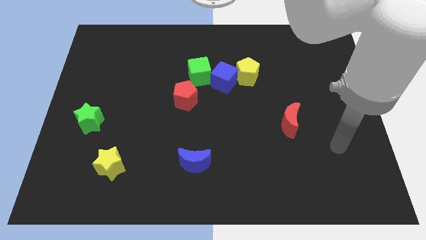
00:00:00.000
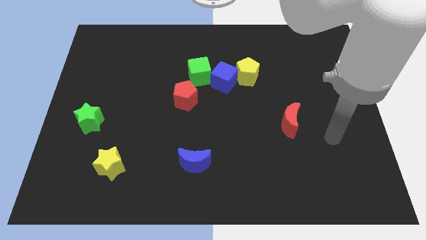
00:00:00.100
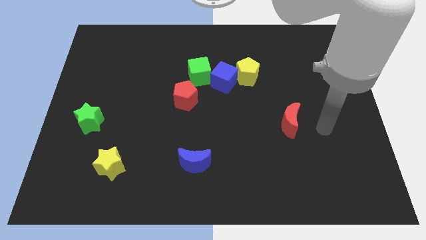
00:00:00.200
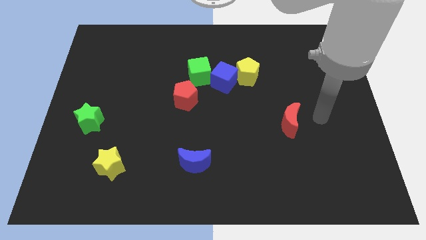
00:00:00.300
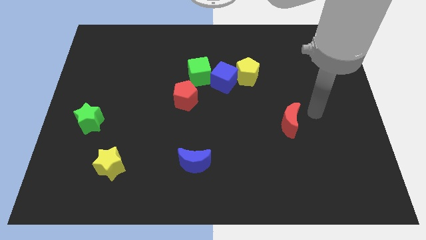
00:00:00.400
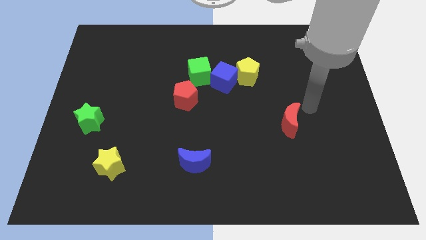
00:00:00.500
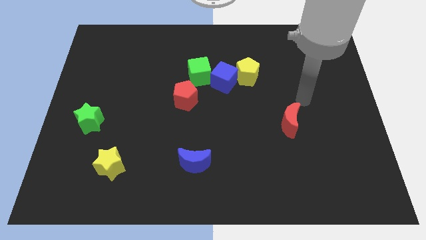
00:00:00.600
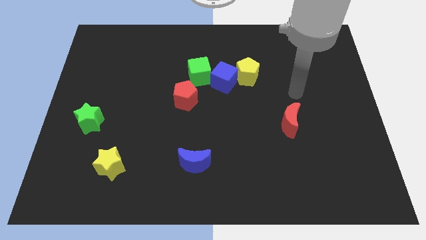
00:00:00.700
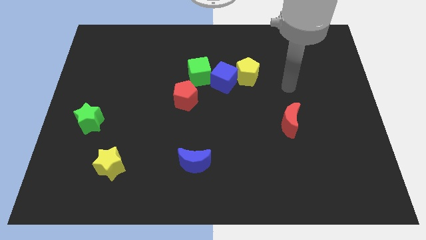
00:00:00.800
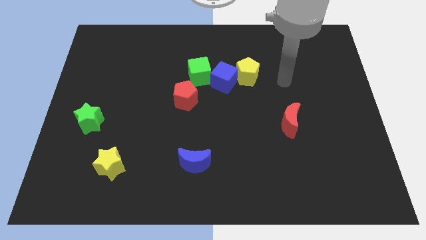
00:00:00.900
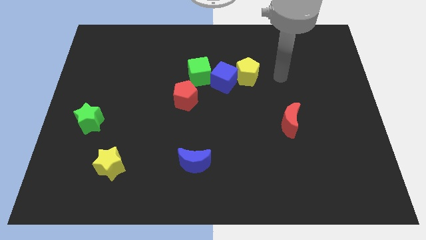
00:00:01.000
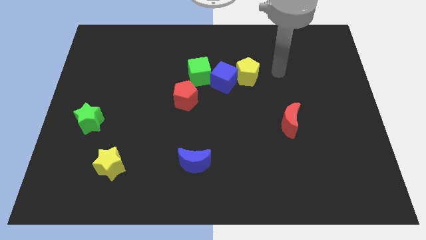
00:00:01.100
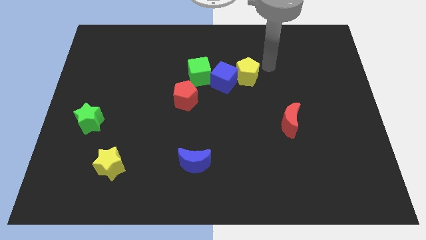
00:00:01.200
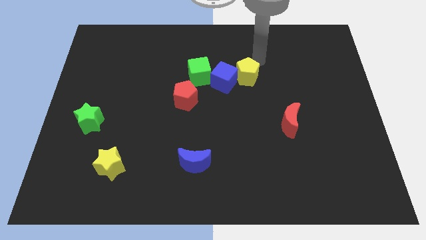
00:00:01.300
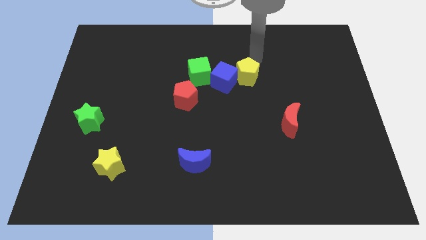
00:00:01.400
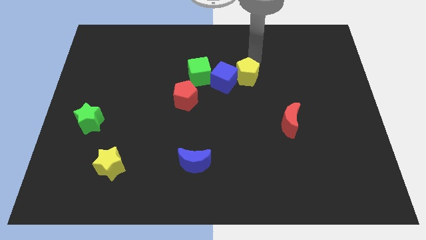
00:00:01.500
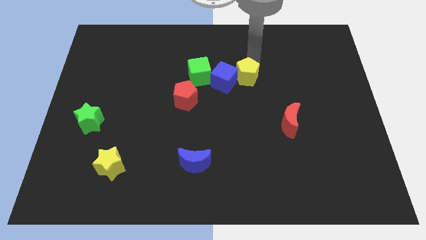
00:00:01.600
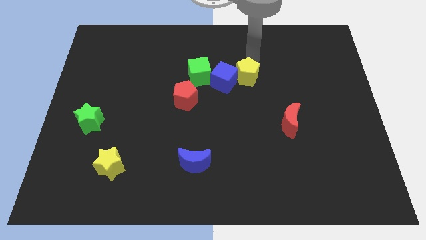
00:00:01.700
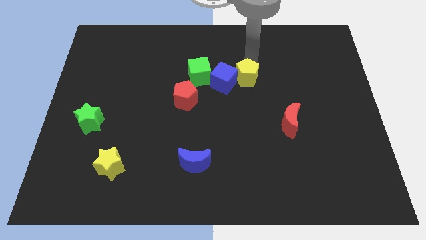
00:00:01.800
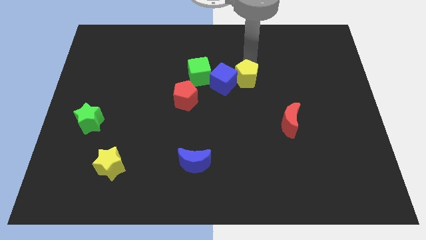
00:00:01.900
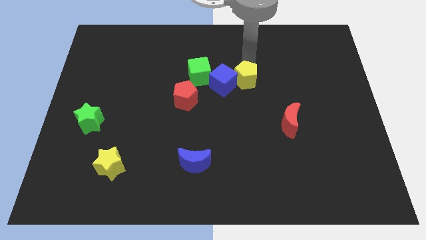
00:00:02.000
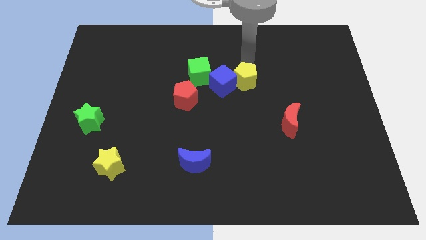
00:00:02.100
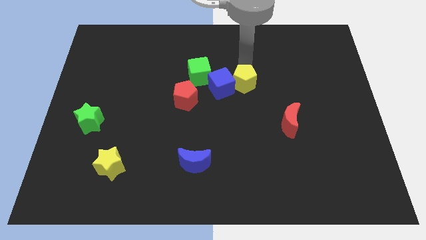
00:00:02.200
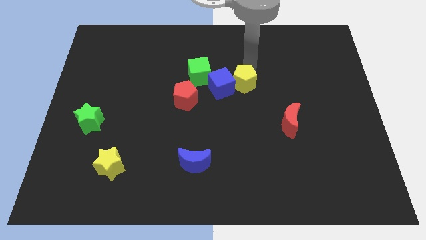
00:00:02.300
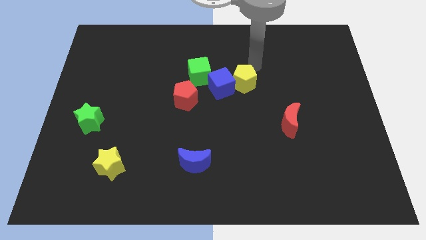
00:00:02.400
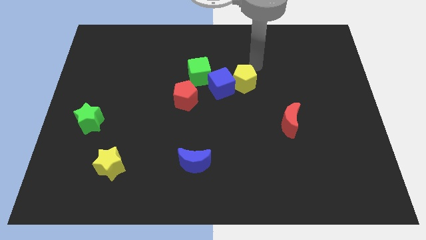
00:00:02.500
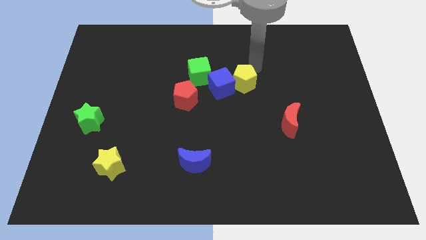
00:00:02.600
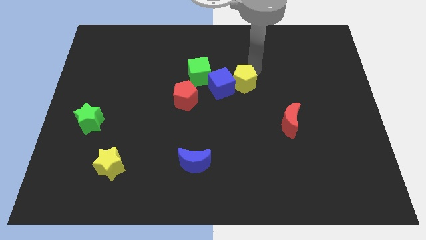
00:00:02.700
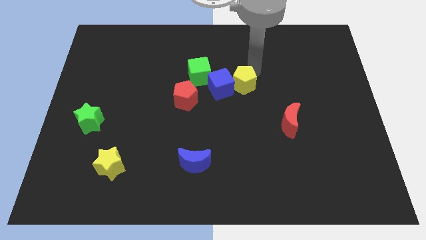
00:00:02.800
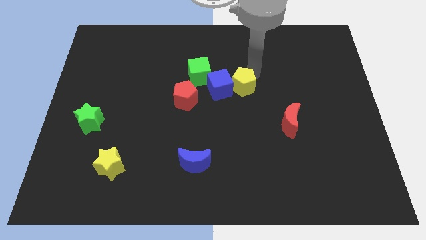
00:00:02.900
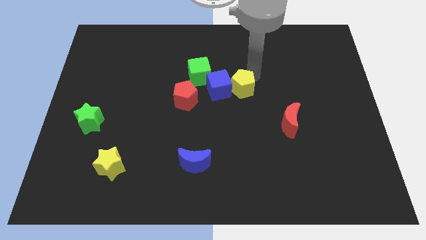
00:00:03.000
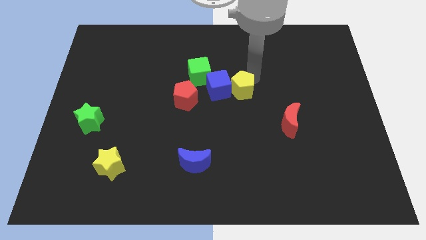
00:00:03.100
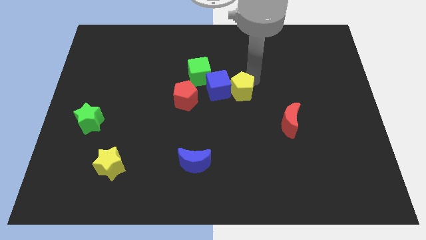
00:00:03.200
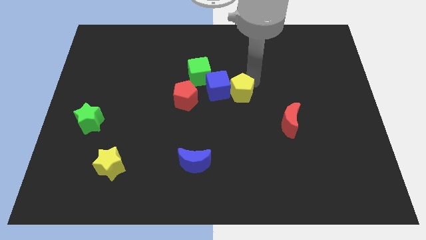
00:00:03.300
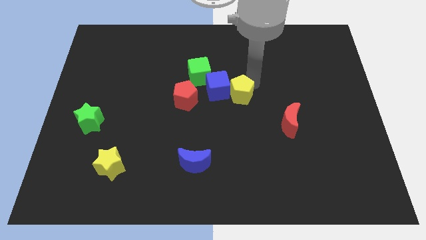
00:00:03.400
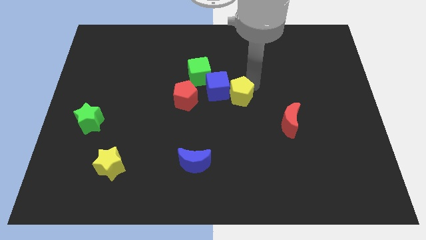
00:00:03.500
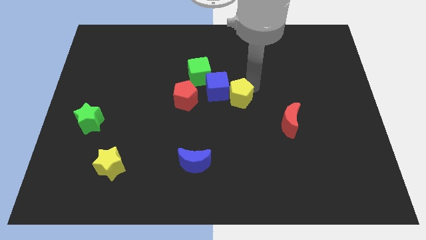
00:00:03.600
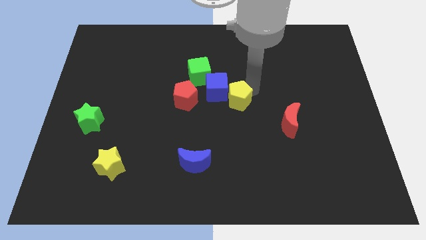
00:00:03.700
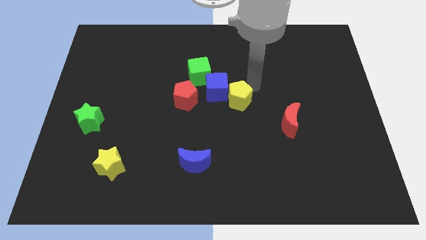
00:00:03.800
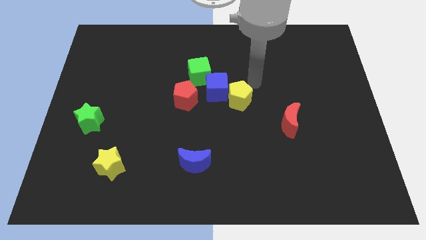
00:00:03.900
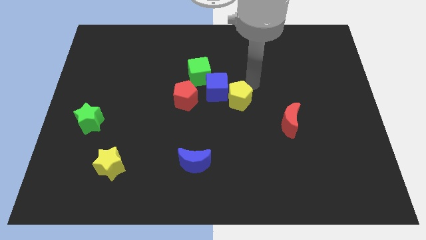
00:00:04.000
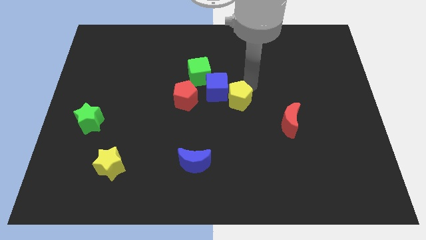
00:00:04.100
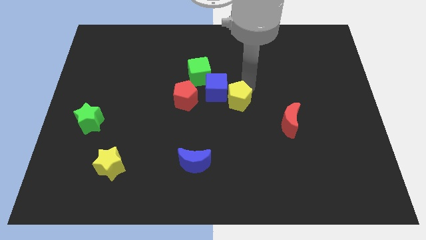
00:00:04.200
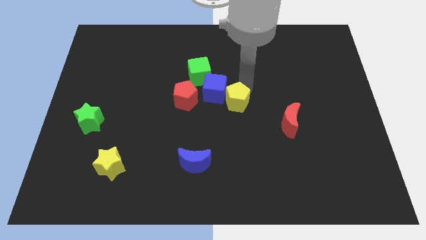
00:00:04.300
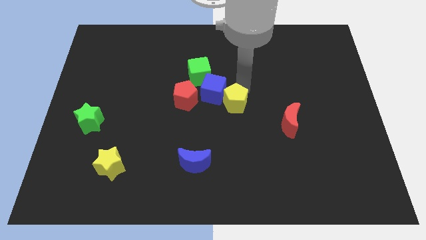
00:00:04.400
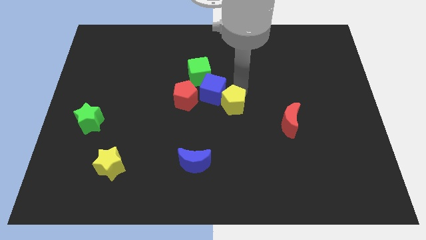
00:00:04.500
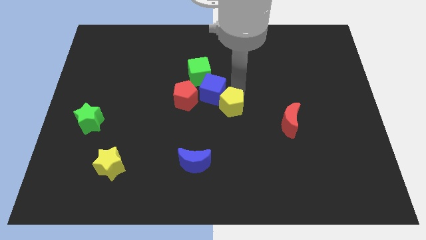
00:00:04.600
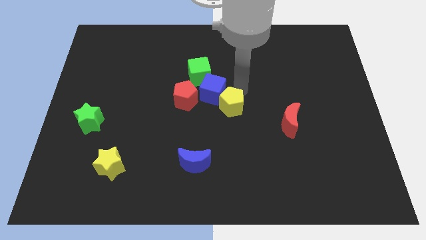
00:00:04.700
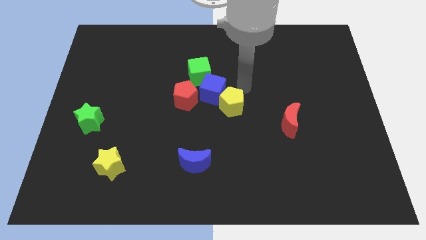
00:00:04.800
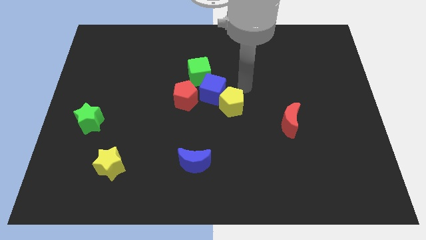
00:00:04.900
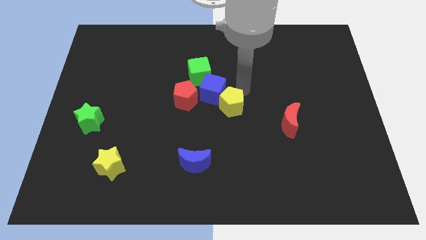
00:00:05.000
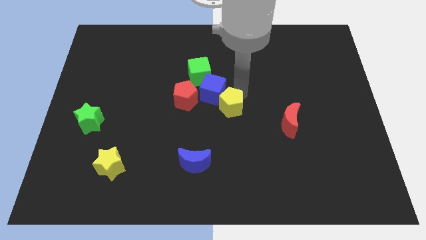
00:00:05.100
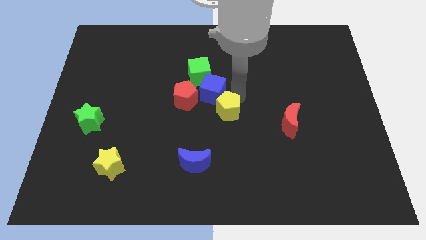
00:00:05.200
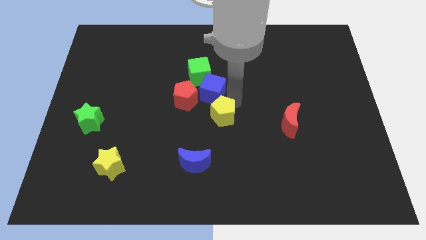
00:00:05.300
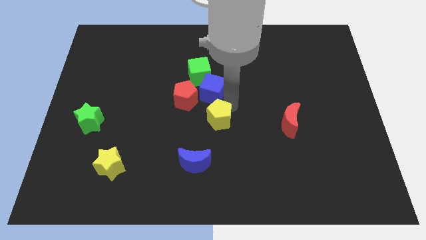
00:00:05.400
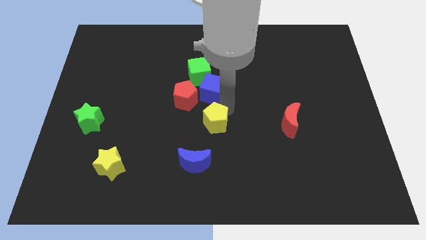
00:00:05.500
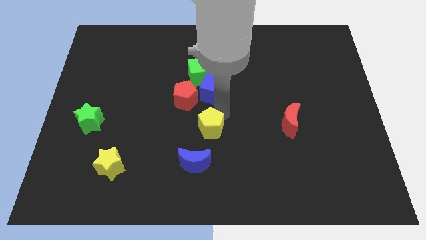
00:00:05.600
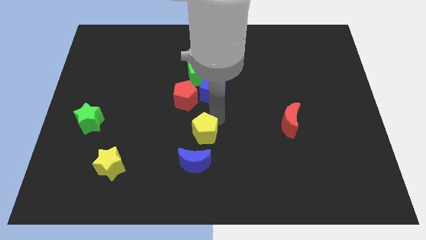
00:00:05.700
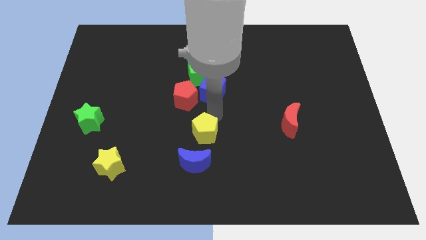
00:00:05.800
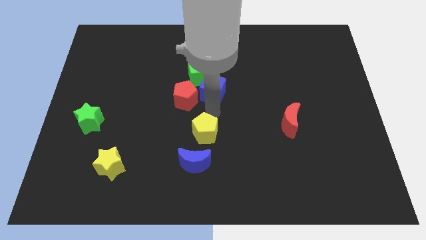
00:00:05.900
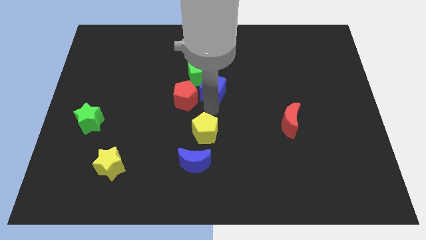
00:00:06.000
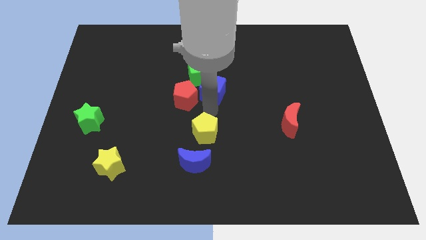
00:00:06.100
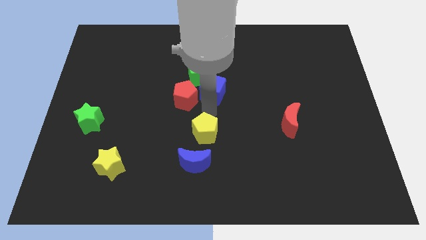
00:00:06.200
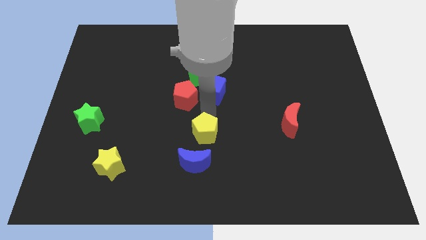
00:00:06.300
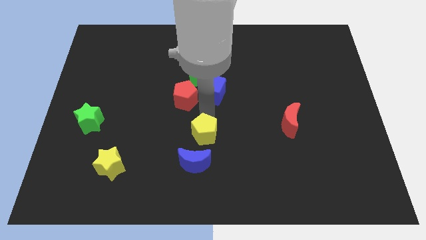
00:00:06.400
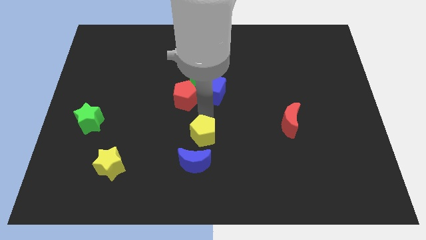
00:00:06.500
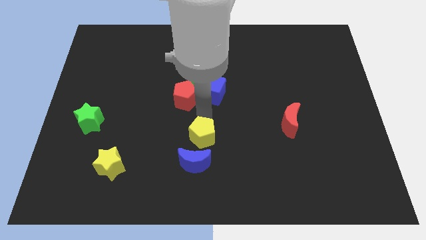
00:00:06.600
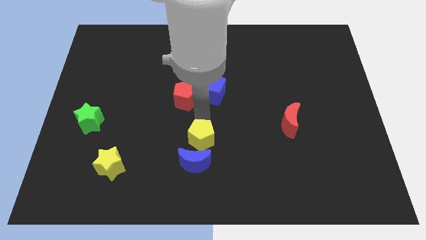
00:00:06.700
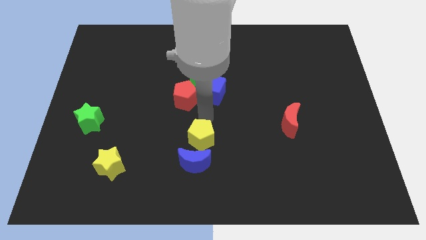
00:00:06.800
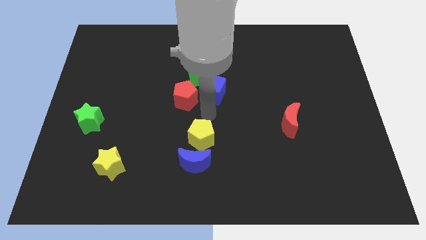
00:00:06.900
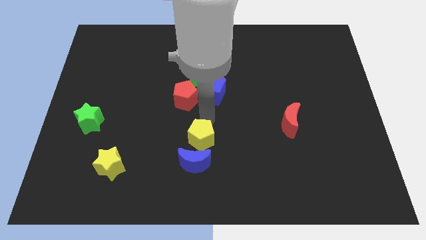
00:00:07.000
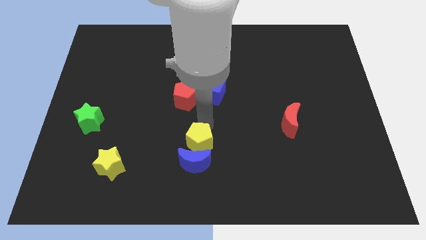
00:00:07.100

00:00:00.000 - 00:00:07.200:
move the yellow pentagon to the blue moon
